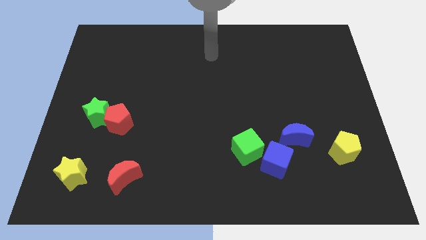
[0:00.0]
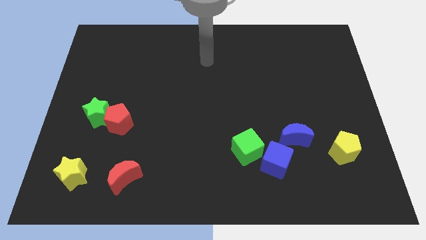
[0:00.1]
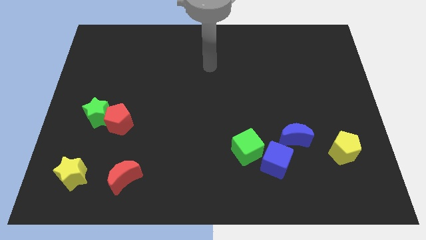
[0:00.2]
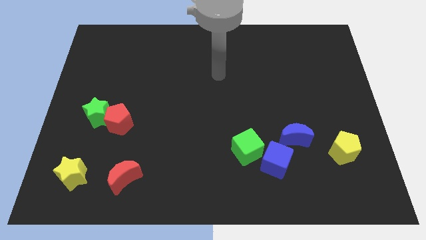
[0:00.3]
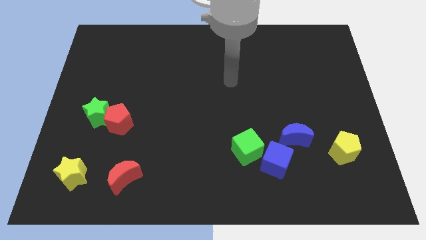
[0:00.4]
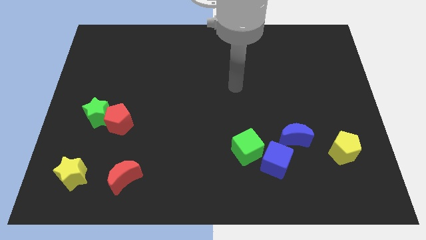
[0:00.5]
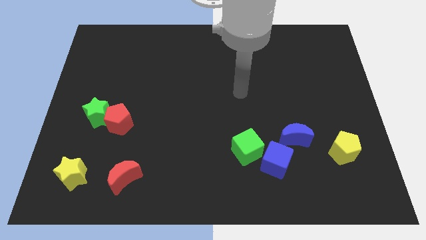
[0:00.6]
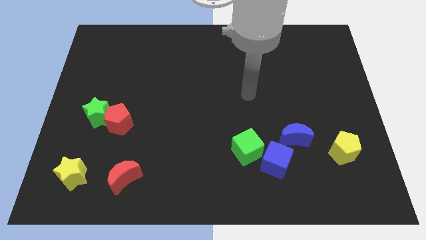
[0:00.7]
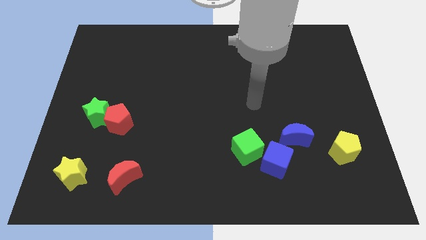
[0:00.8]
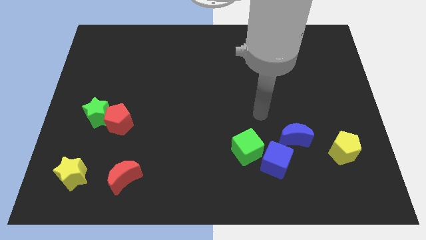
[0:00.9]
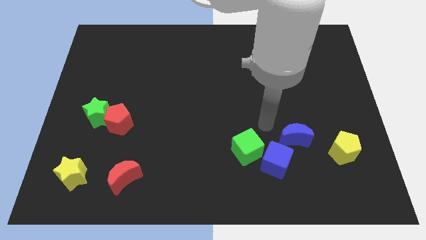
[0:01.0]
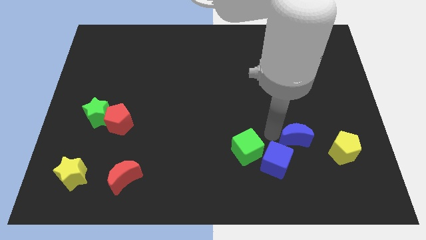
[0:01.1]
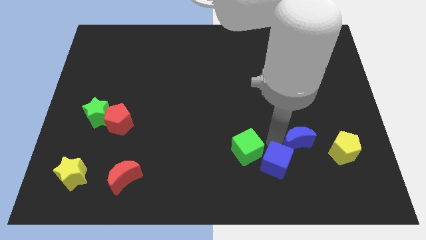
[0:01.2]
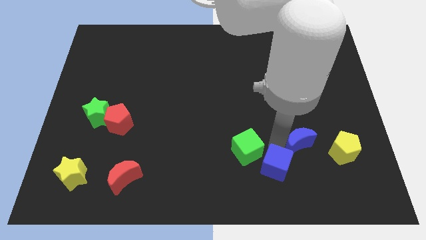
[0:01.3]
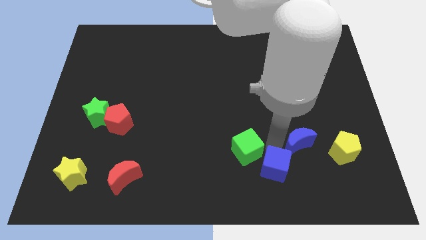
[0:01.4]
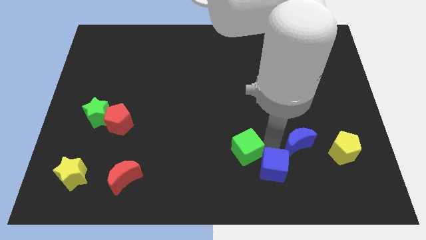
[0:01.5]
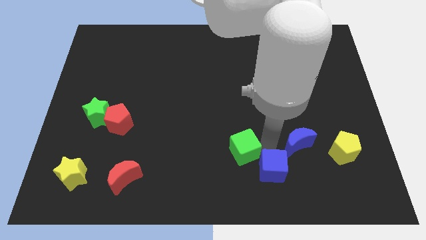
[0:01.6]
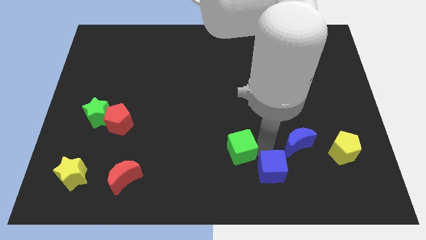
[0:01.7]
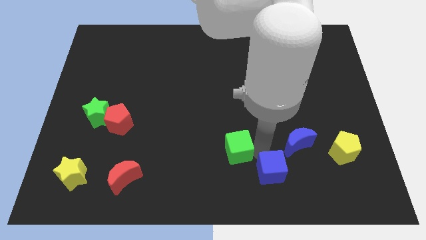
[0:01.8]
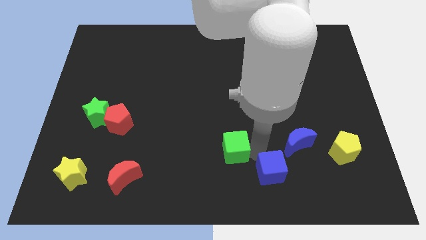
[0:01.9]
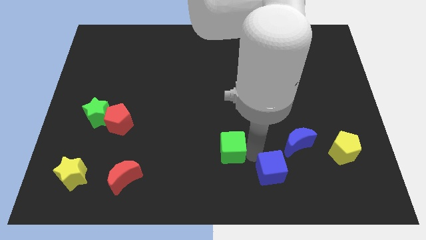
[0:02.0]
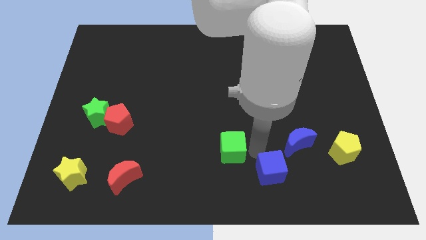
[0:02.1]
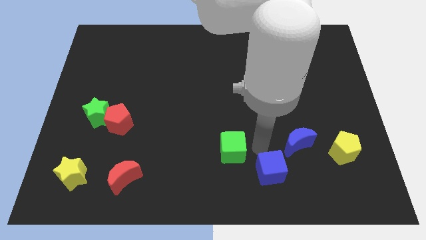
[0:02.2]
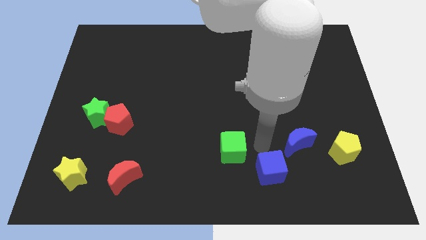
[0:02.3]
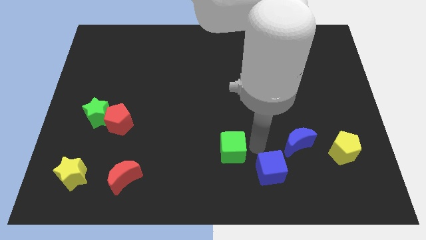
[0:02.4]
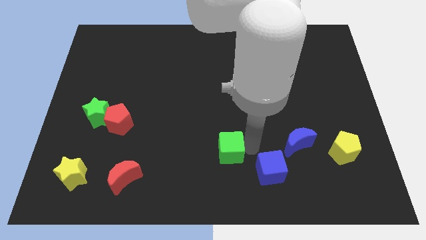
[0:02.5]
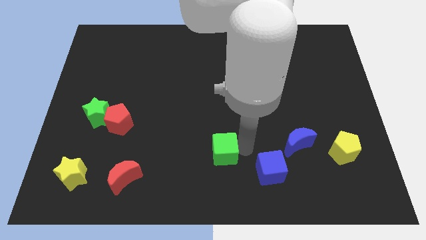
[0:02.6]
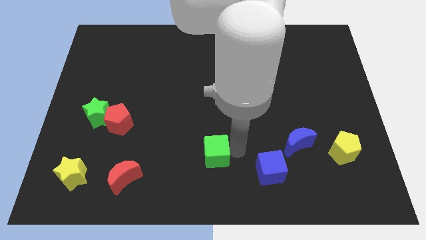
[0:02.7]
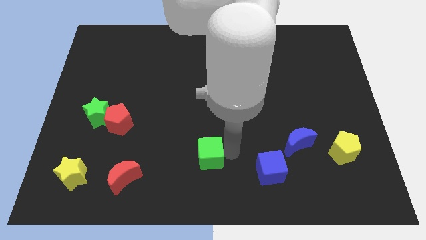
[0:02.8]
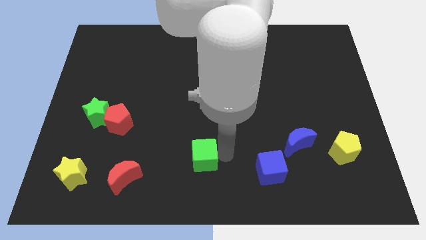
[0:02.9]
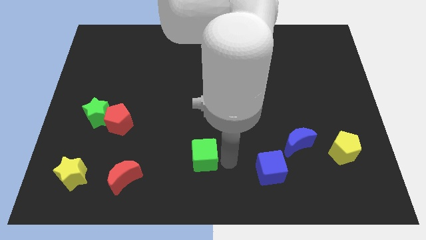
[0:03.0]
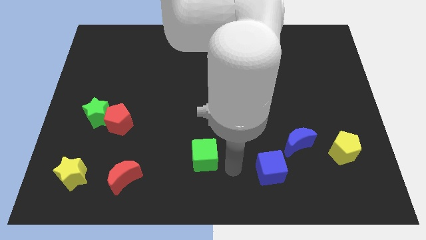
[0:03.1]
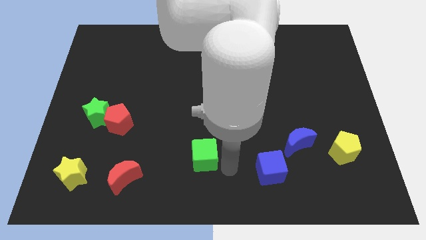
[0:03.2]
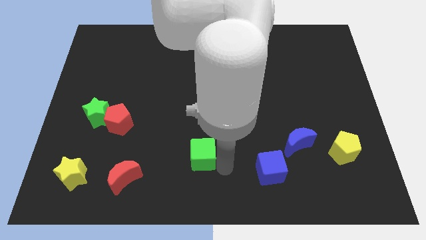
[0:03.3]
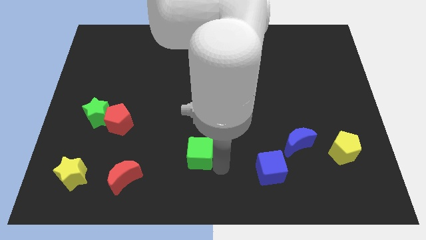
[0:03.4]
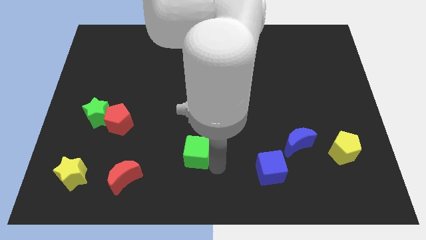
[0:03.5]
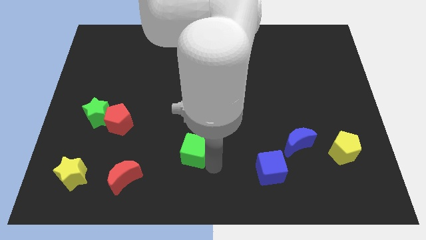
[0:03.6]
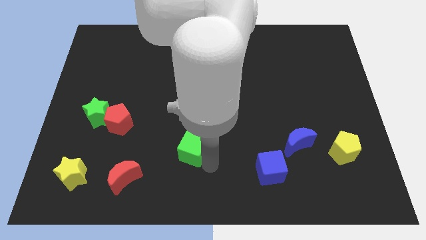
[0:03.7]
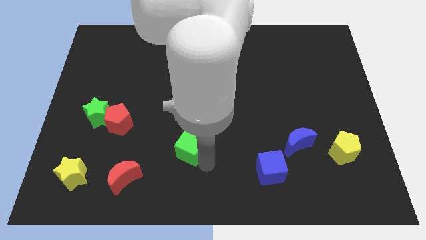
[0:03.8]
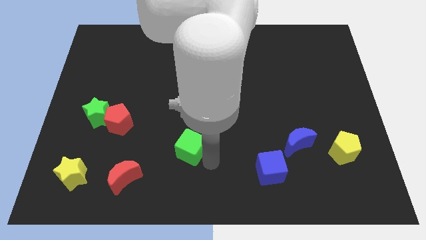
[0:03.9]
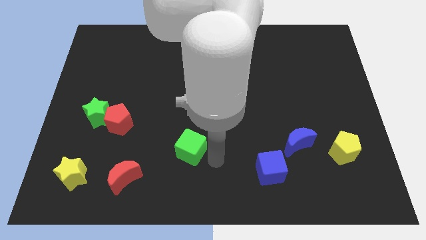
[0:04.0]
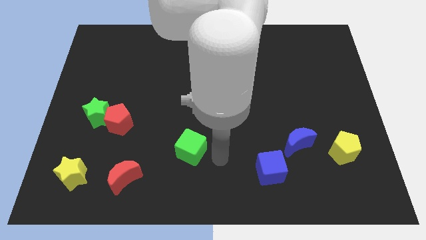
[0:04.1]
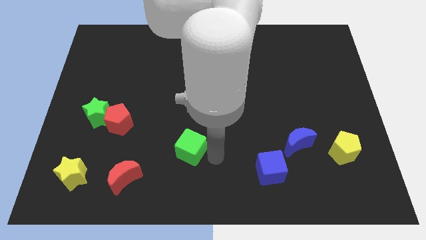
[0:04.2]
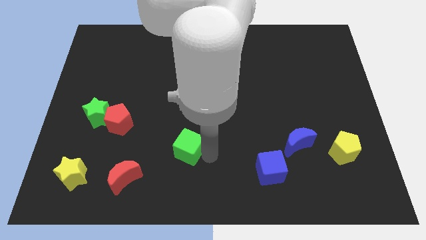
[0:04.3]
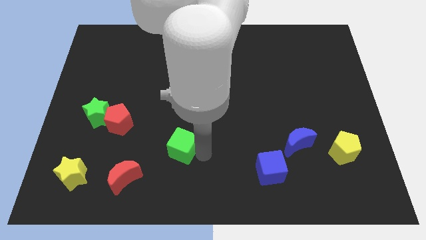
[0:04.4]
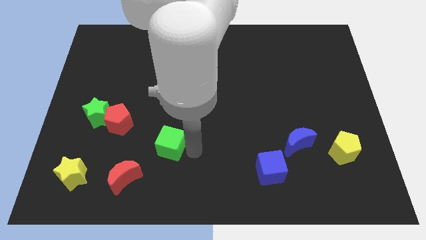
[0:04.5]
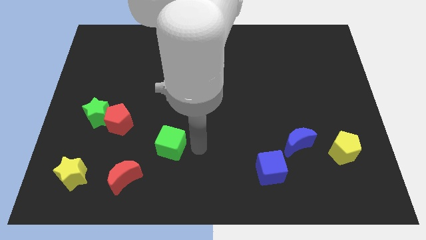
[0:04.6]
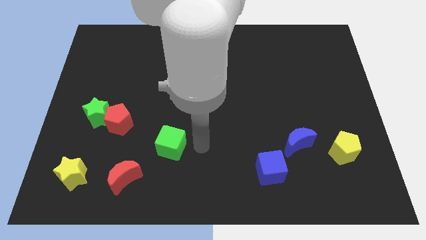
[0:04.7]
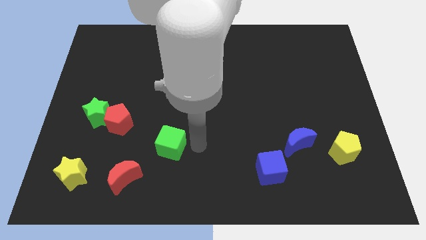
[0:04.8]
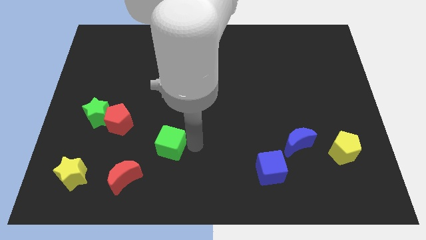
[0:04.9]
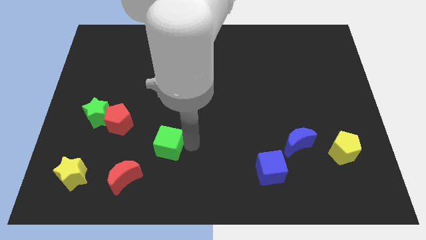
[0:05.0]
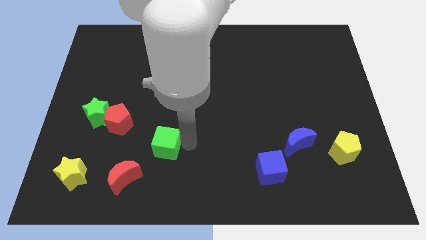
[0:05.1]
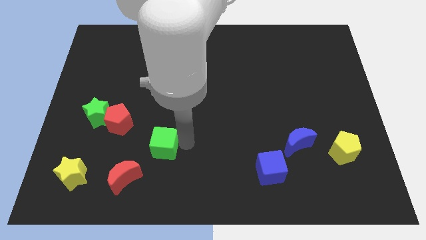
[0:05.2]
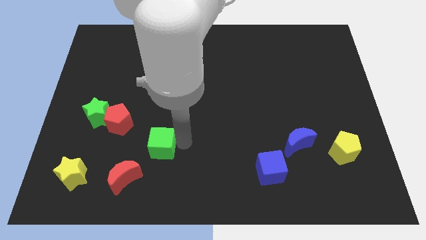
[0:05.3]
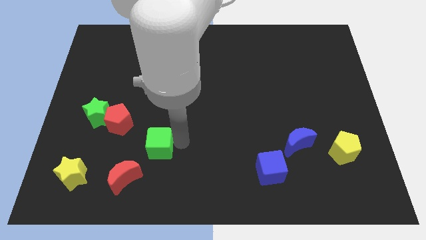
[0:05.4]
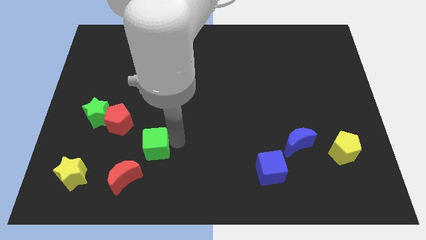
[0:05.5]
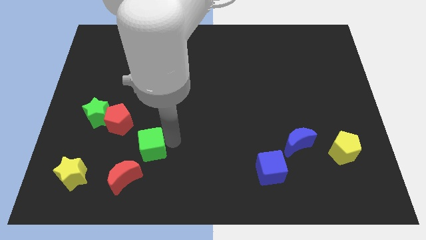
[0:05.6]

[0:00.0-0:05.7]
slide the green cube left

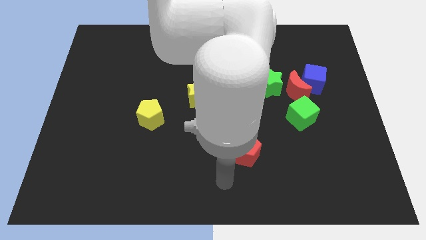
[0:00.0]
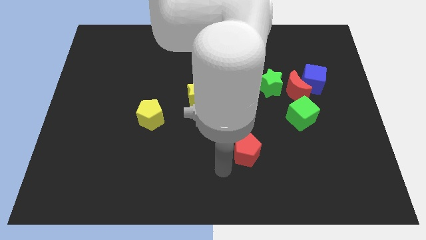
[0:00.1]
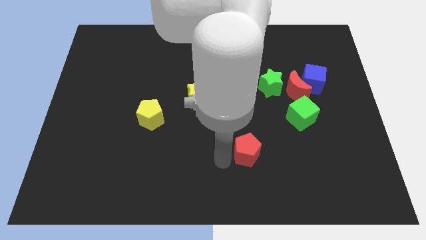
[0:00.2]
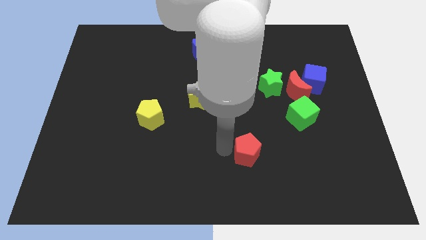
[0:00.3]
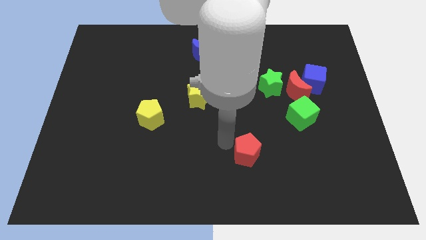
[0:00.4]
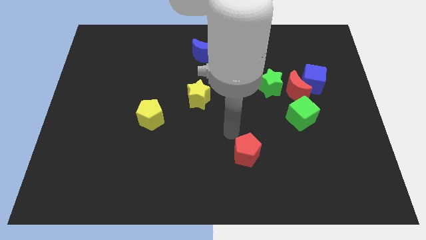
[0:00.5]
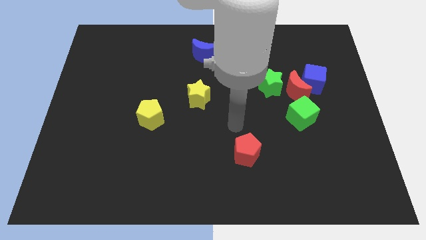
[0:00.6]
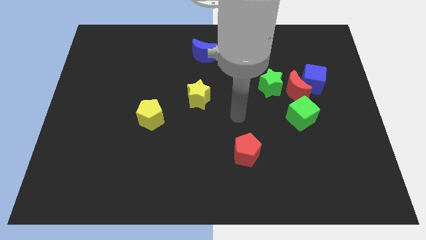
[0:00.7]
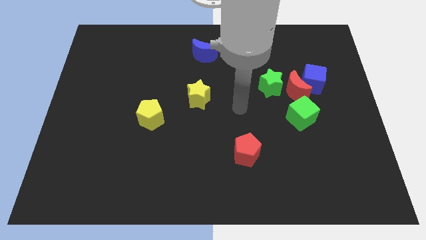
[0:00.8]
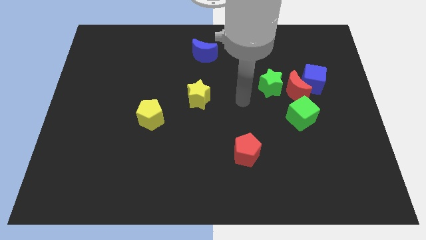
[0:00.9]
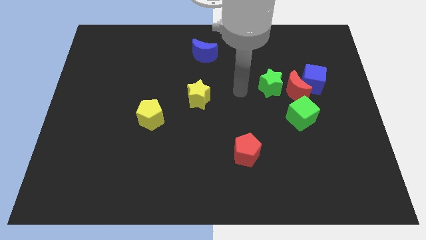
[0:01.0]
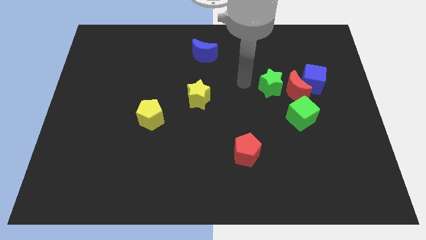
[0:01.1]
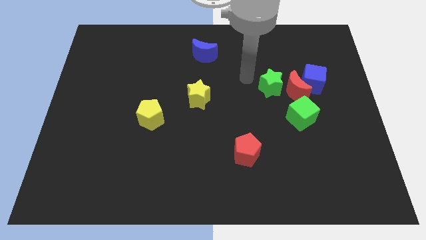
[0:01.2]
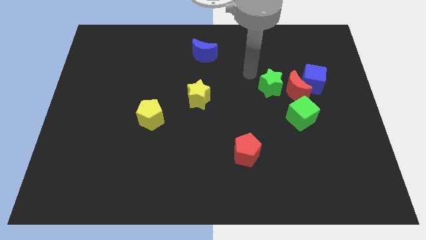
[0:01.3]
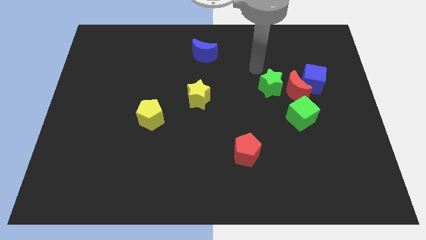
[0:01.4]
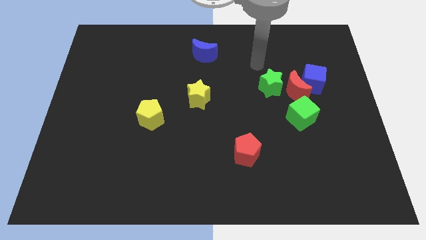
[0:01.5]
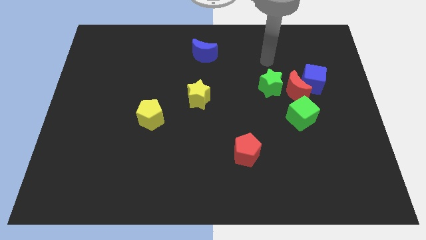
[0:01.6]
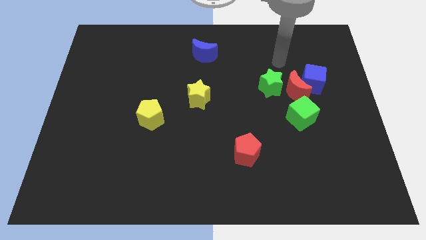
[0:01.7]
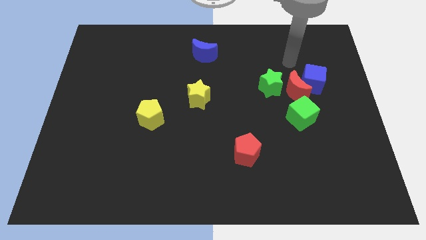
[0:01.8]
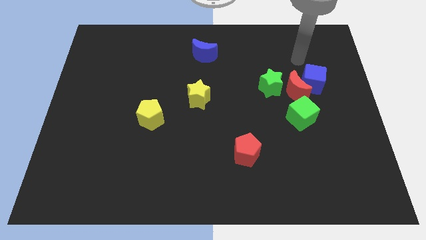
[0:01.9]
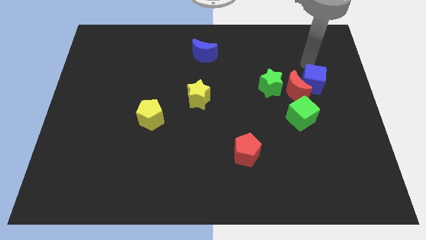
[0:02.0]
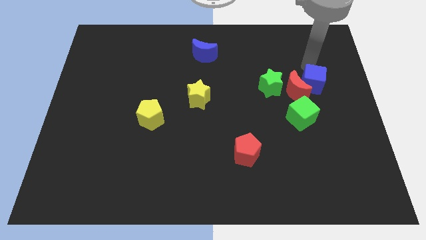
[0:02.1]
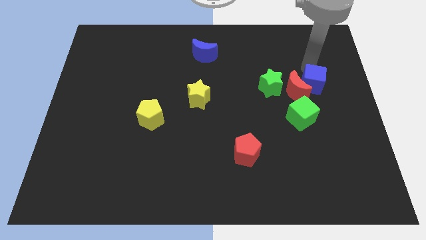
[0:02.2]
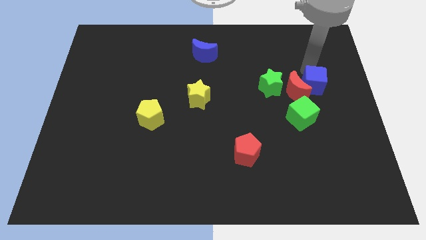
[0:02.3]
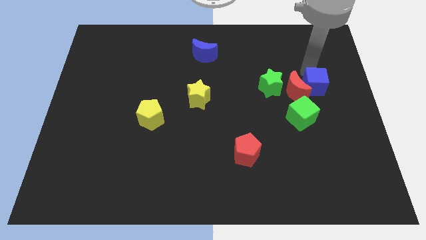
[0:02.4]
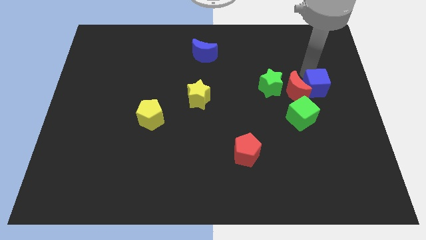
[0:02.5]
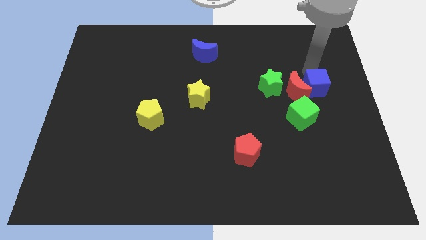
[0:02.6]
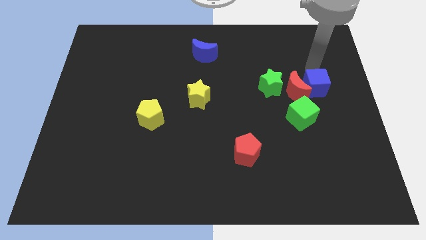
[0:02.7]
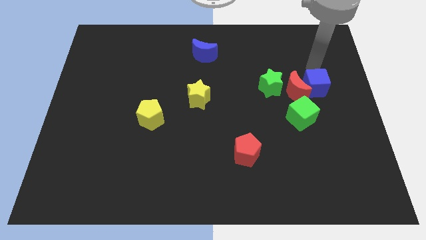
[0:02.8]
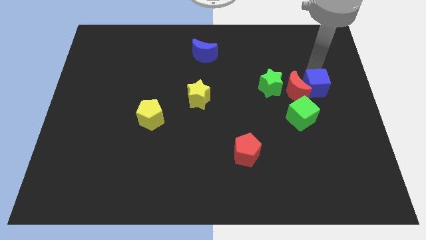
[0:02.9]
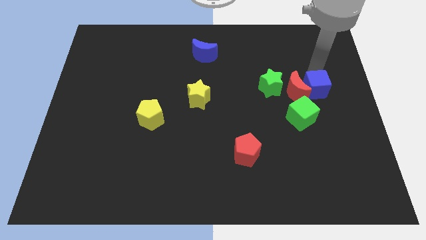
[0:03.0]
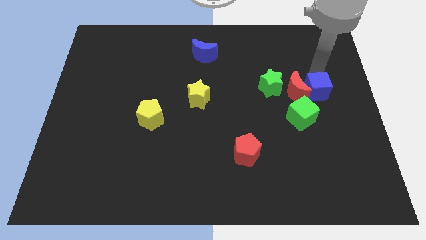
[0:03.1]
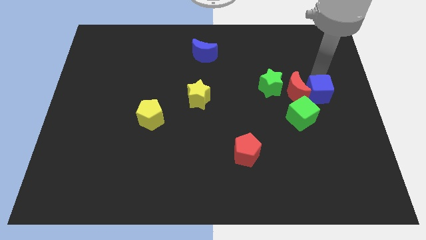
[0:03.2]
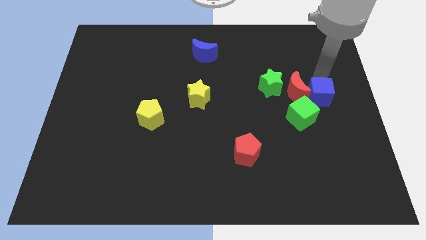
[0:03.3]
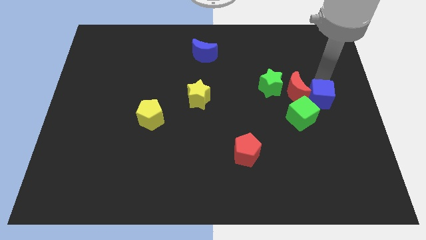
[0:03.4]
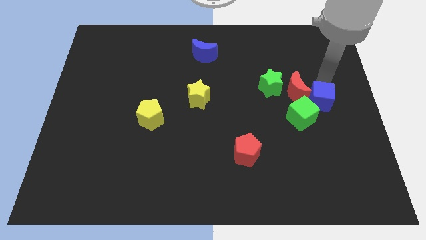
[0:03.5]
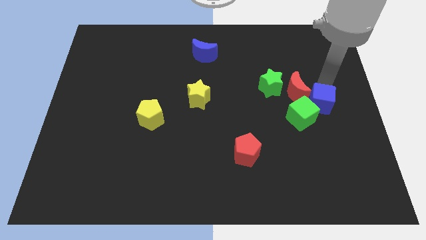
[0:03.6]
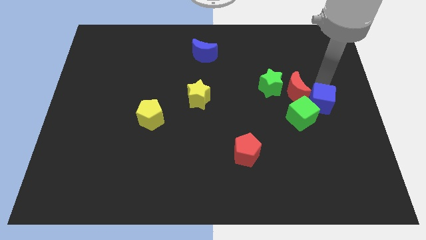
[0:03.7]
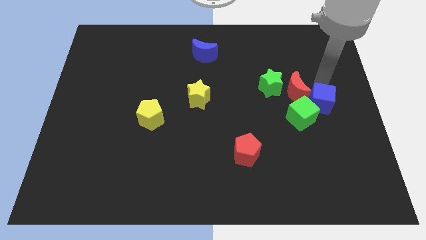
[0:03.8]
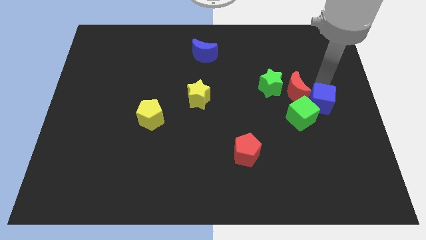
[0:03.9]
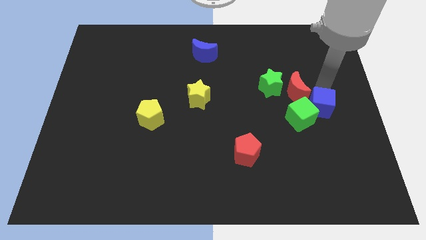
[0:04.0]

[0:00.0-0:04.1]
slide the blue cube somewhat down
